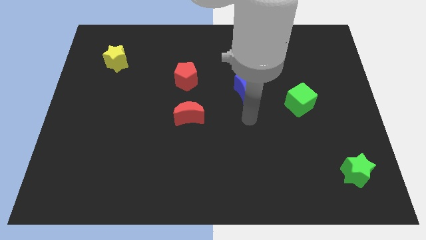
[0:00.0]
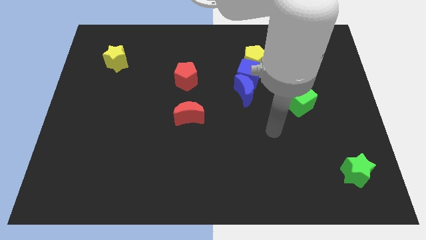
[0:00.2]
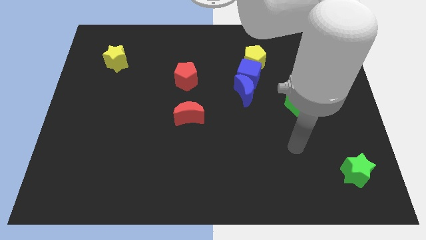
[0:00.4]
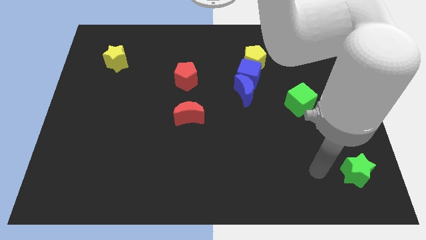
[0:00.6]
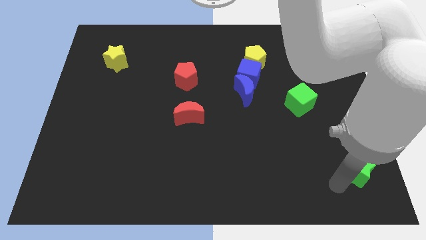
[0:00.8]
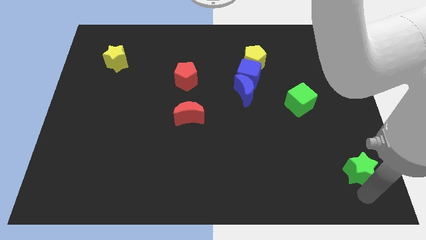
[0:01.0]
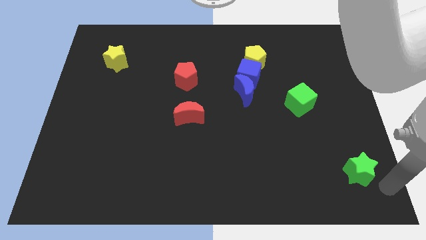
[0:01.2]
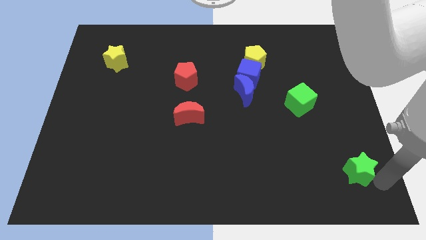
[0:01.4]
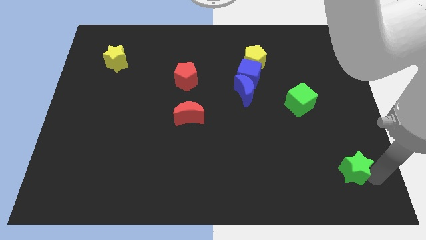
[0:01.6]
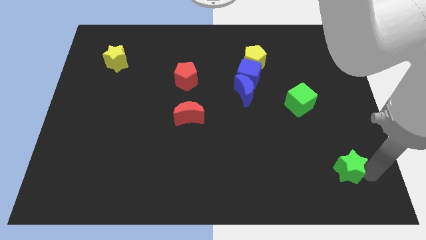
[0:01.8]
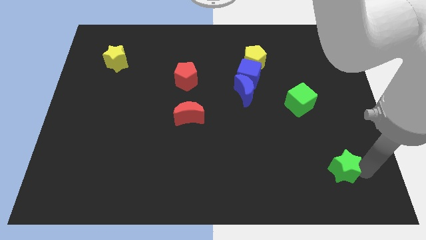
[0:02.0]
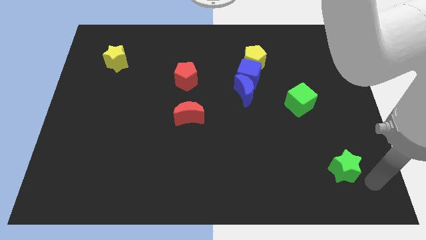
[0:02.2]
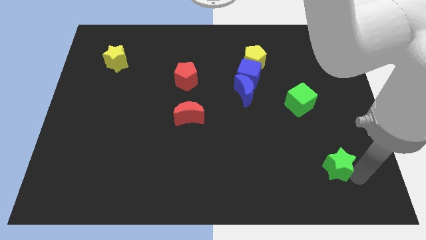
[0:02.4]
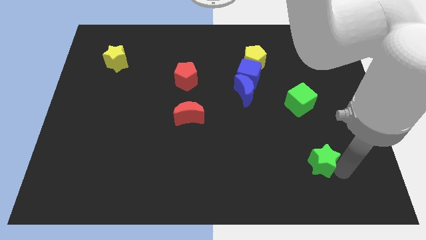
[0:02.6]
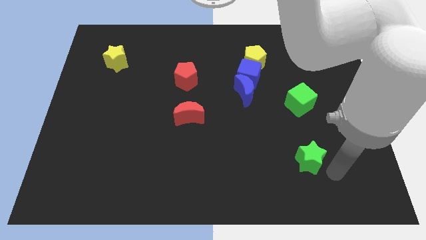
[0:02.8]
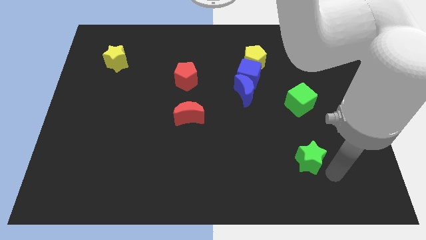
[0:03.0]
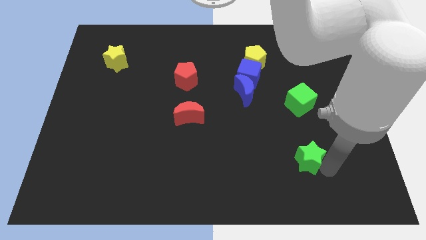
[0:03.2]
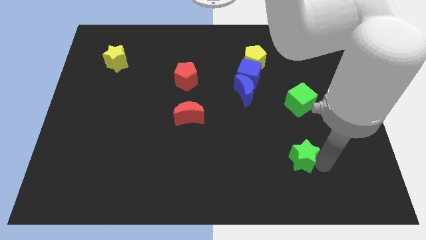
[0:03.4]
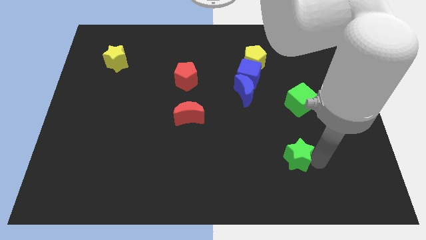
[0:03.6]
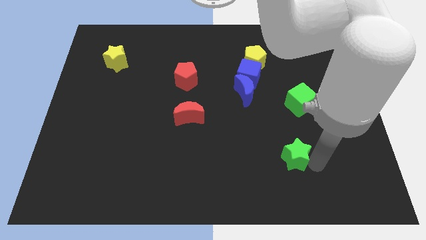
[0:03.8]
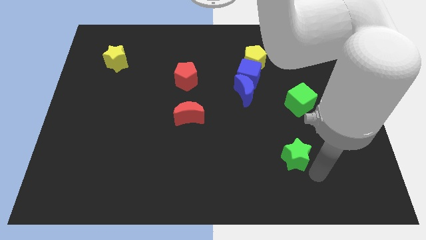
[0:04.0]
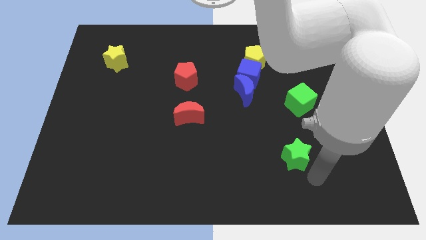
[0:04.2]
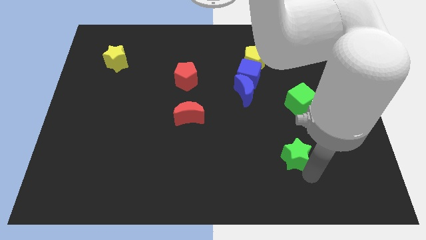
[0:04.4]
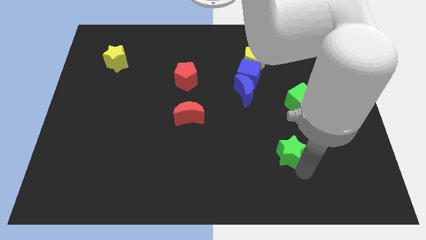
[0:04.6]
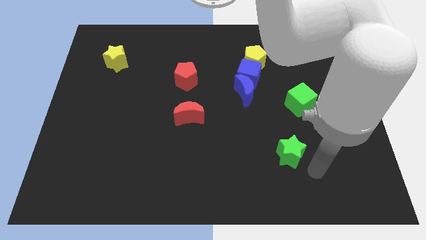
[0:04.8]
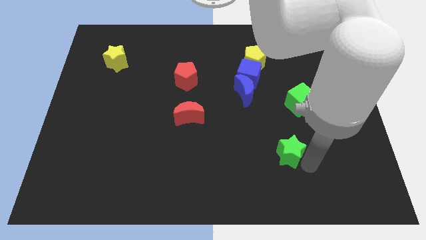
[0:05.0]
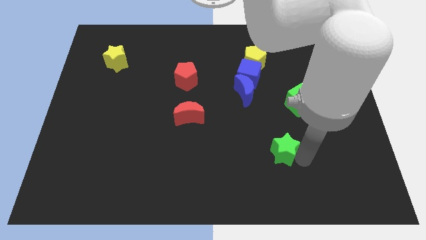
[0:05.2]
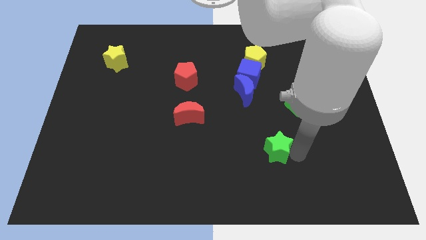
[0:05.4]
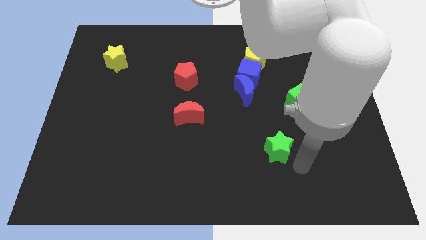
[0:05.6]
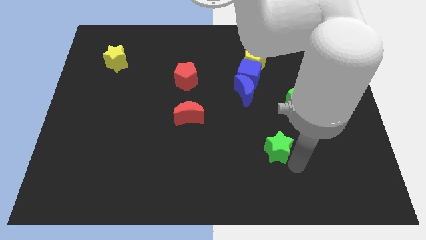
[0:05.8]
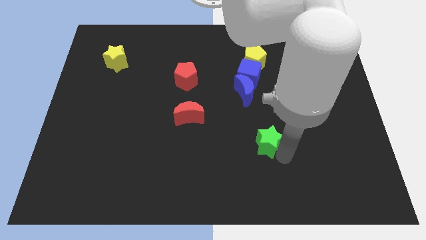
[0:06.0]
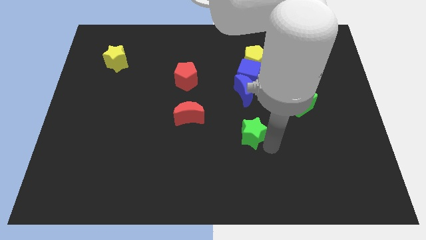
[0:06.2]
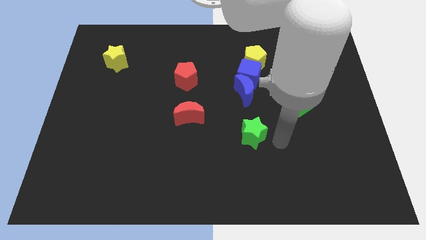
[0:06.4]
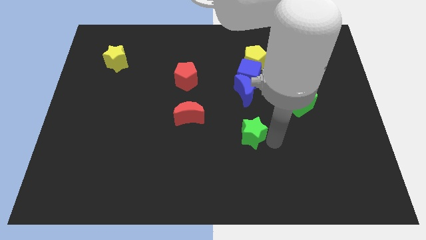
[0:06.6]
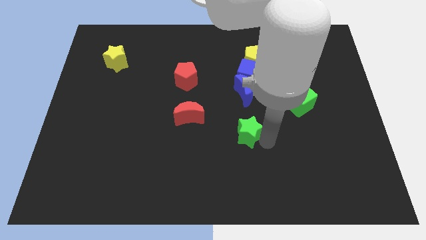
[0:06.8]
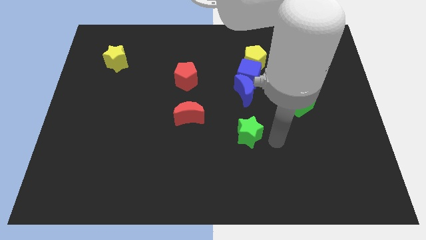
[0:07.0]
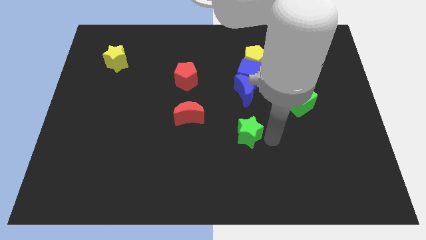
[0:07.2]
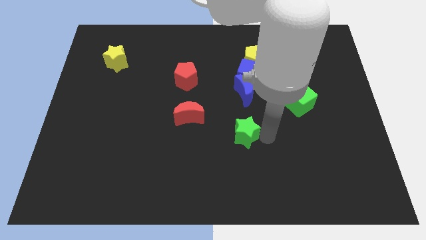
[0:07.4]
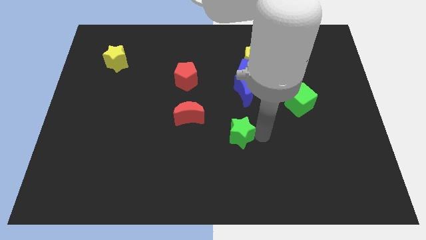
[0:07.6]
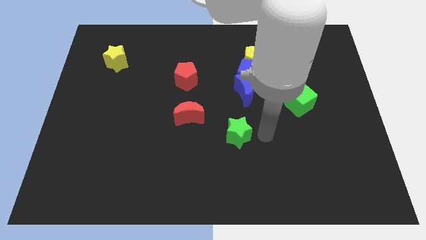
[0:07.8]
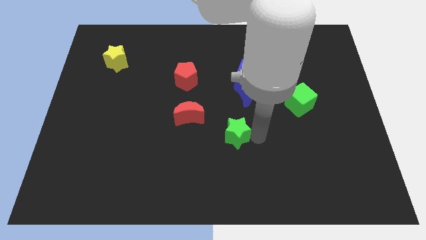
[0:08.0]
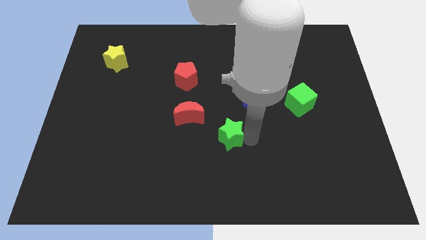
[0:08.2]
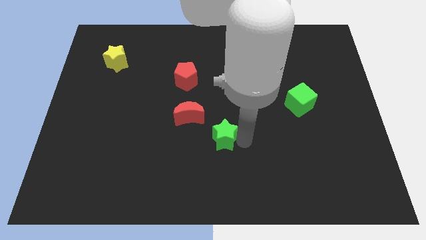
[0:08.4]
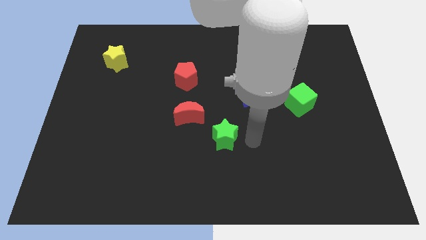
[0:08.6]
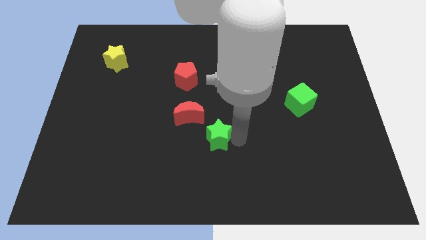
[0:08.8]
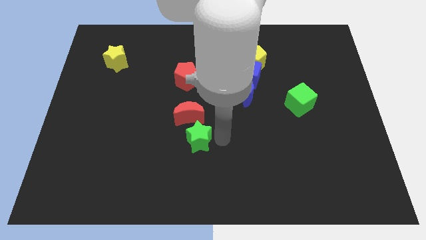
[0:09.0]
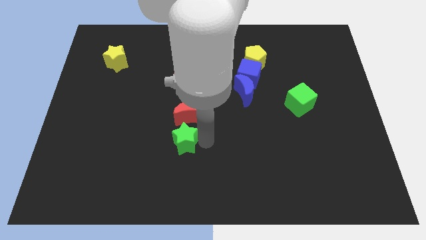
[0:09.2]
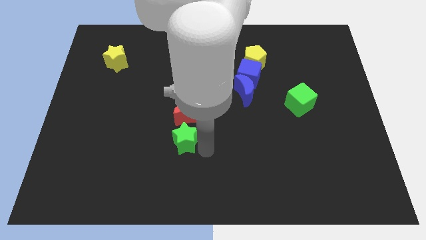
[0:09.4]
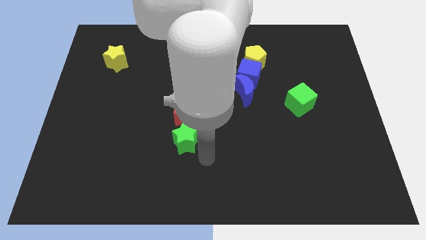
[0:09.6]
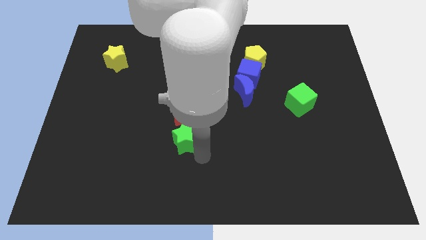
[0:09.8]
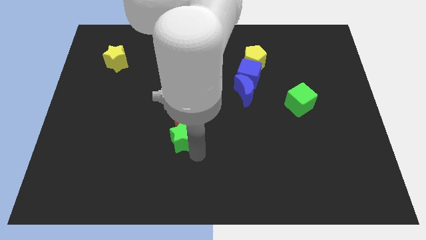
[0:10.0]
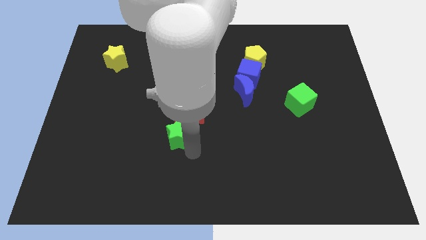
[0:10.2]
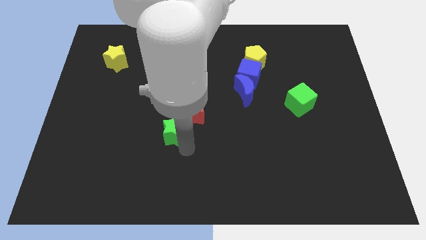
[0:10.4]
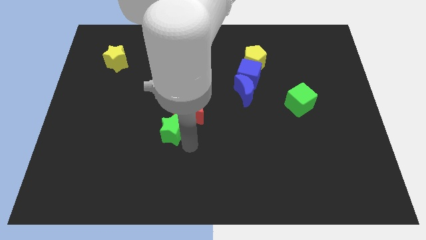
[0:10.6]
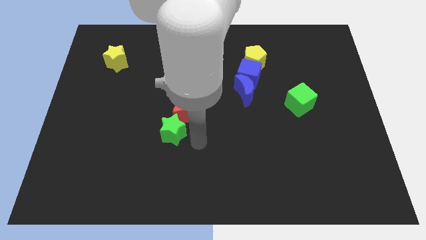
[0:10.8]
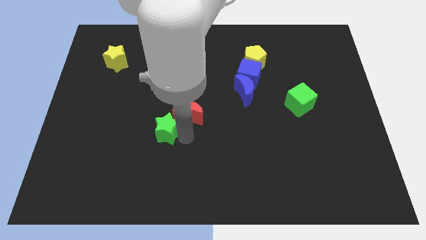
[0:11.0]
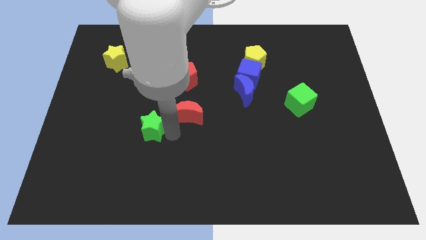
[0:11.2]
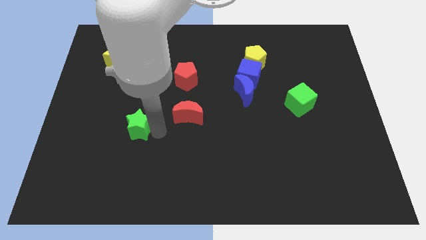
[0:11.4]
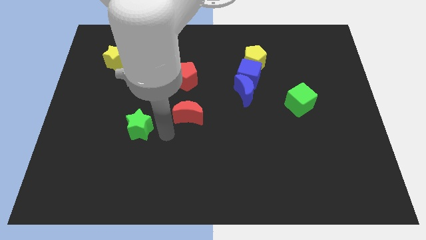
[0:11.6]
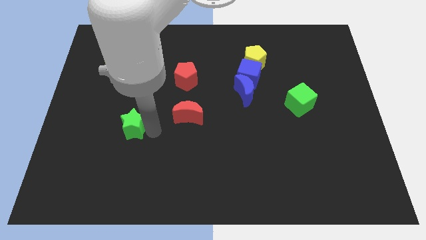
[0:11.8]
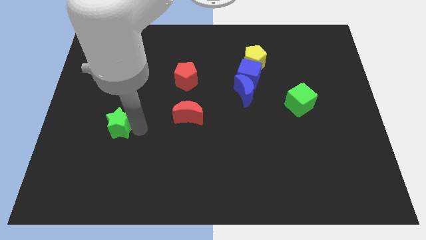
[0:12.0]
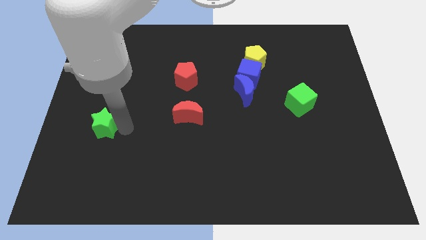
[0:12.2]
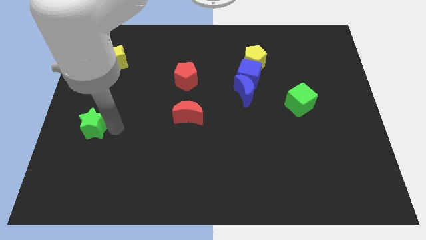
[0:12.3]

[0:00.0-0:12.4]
move the green star to the left side of the board
